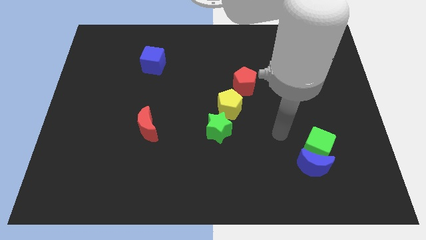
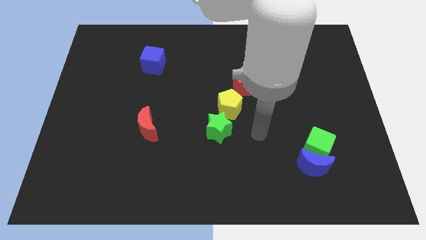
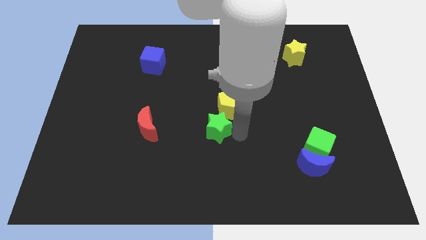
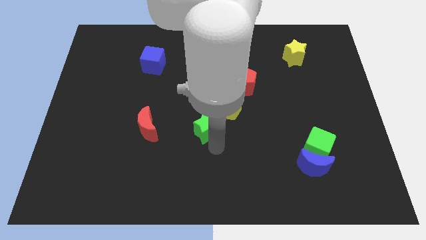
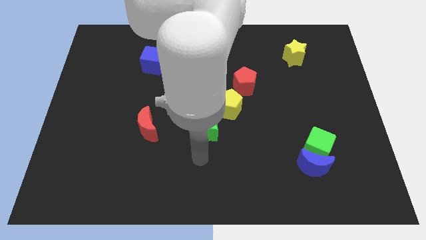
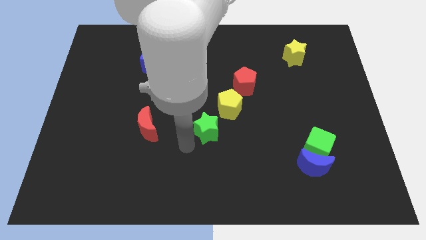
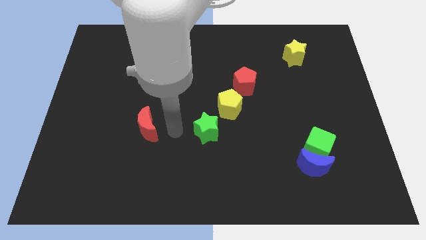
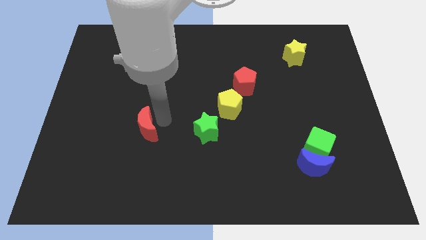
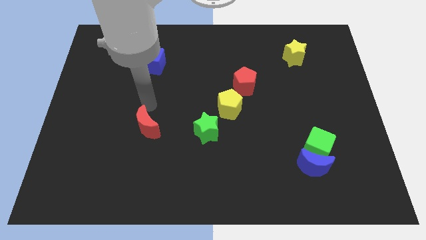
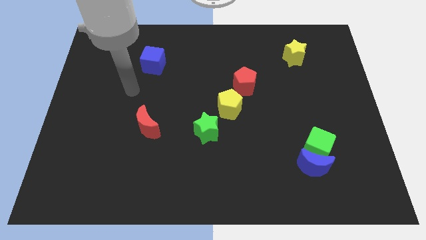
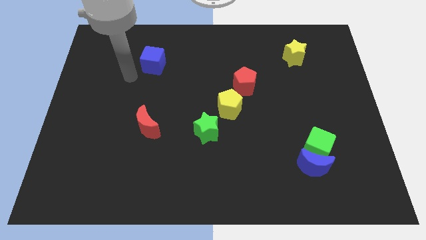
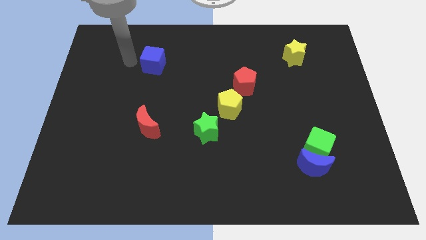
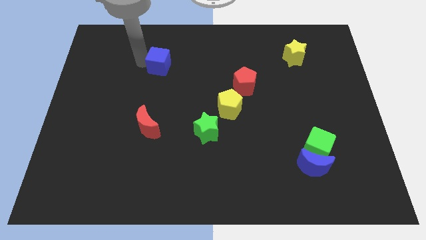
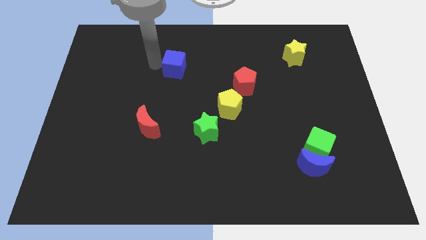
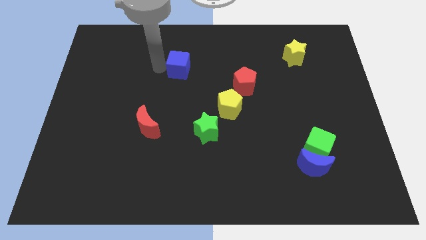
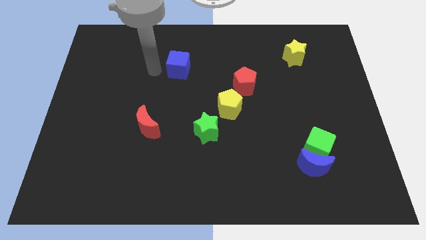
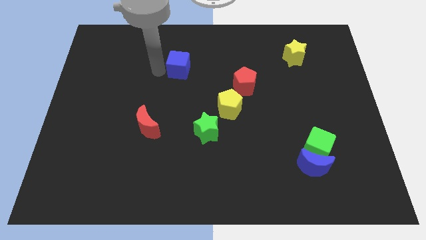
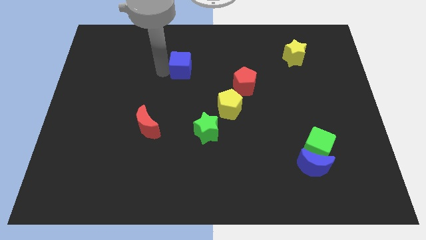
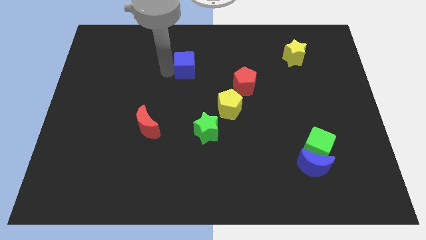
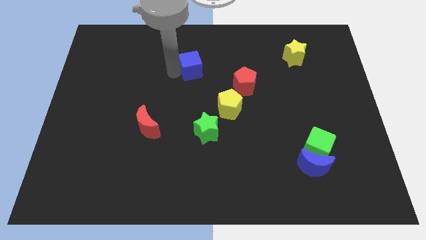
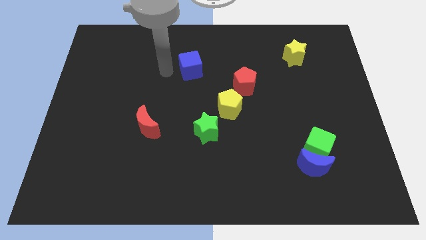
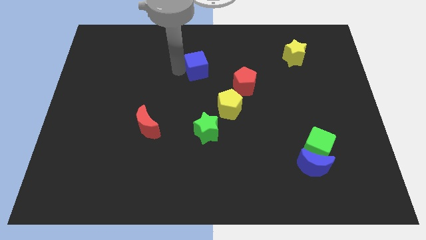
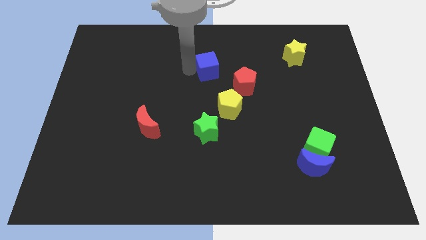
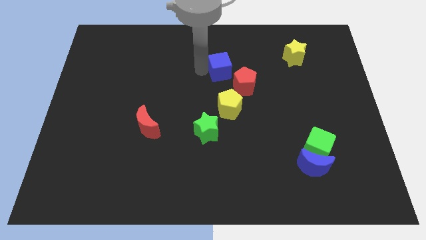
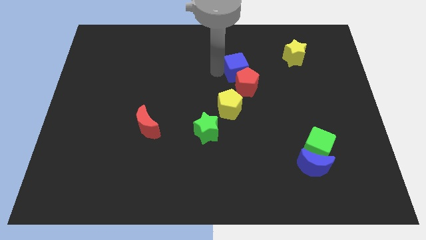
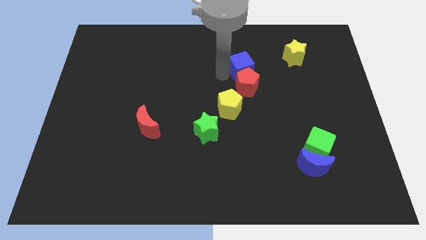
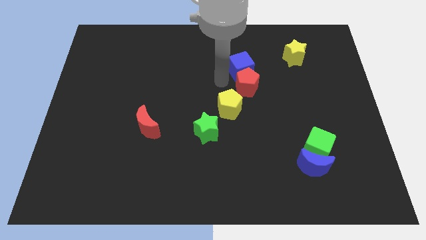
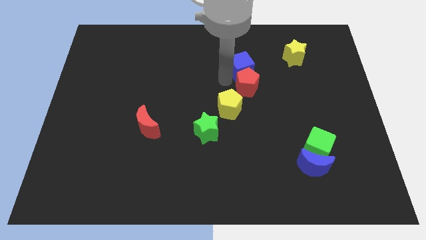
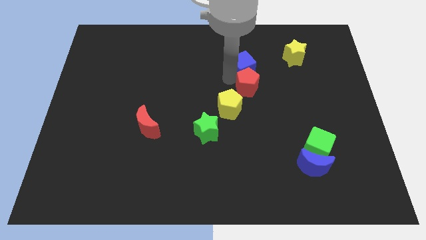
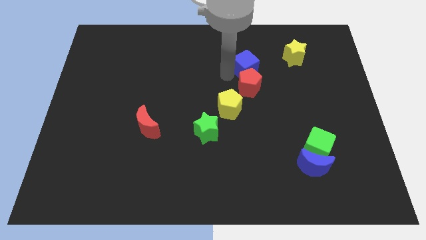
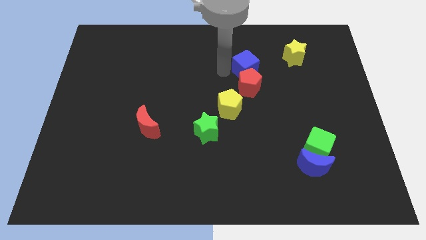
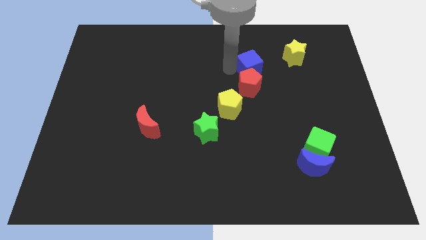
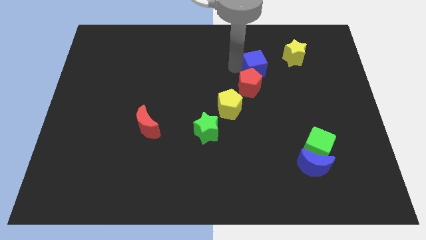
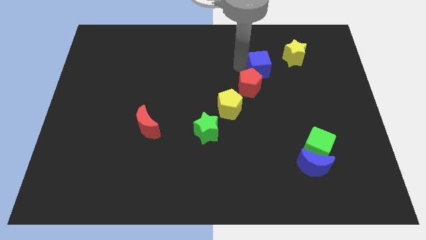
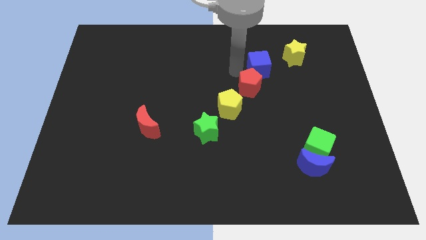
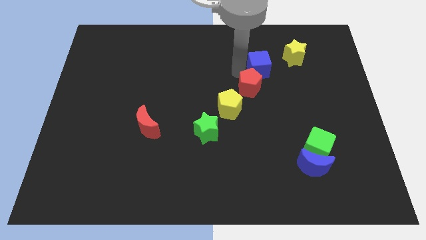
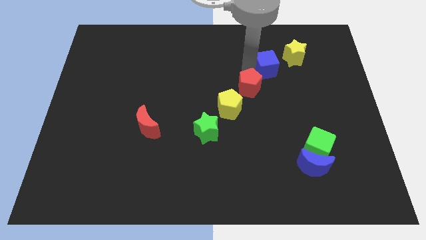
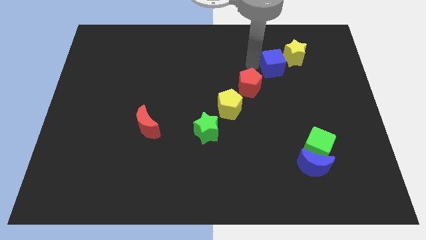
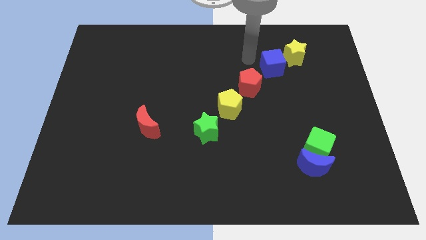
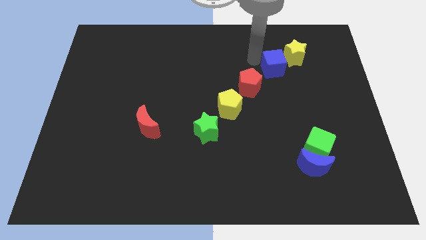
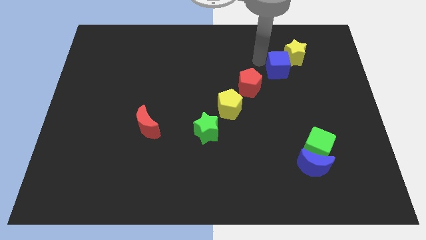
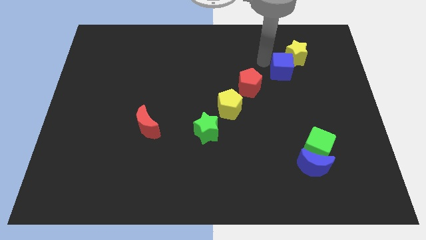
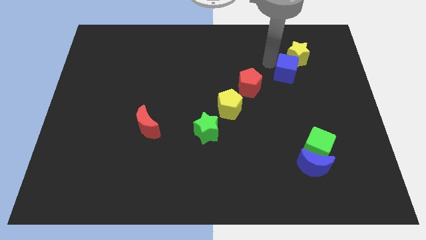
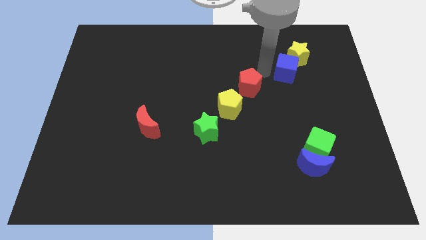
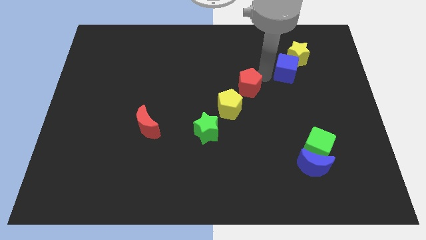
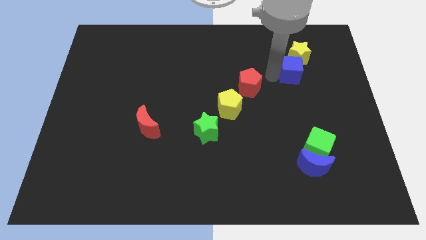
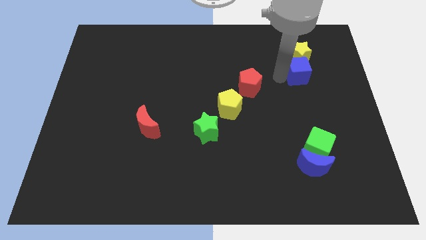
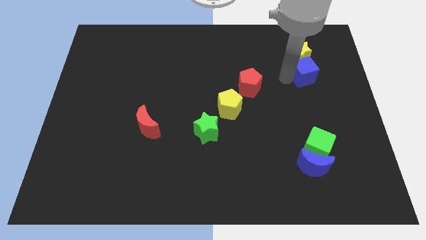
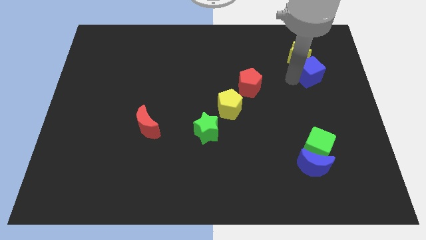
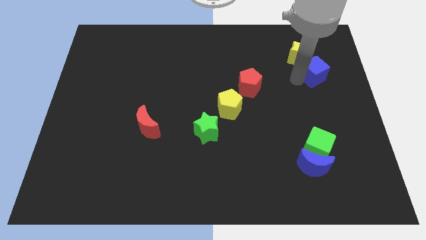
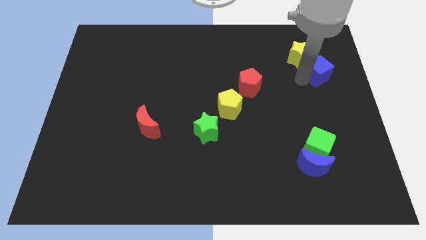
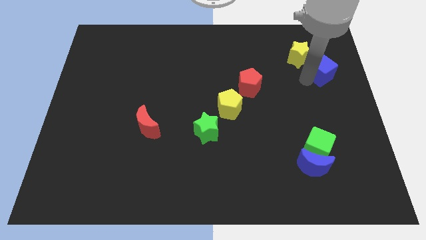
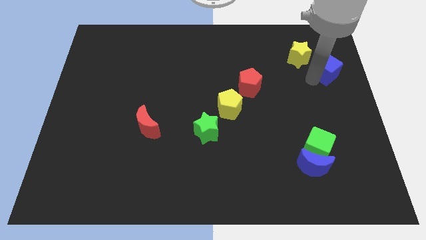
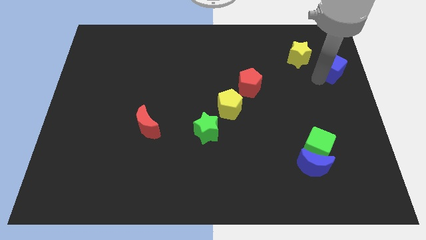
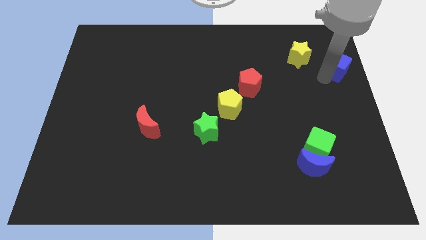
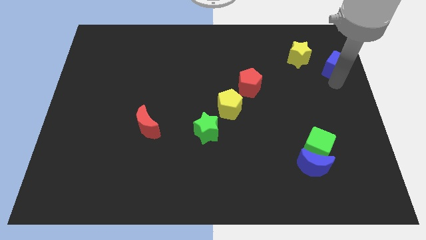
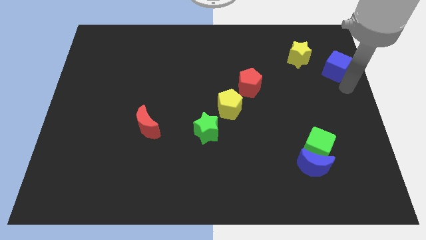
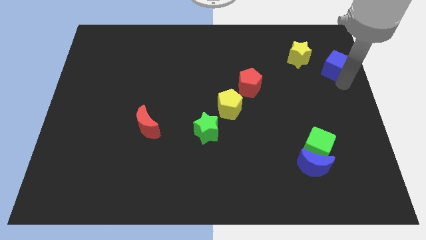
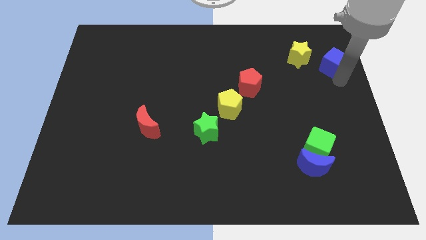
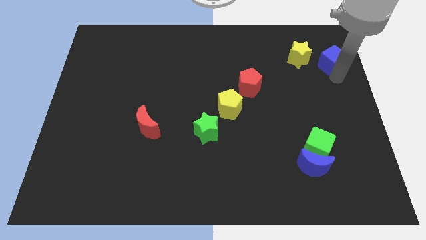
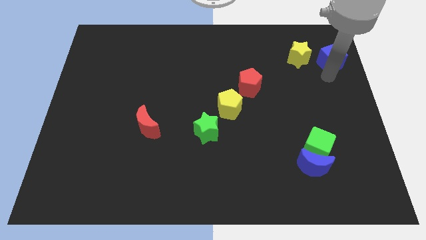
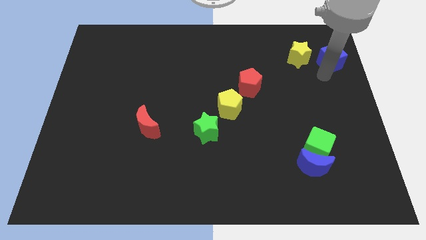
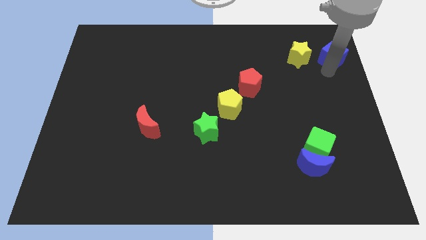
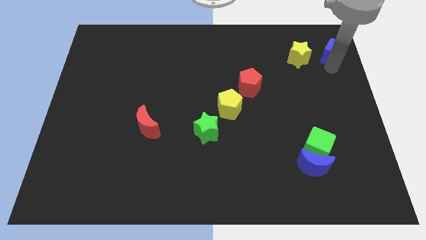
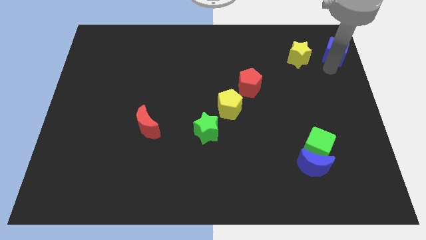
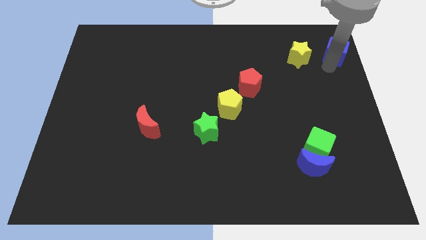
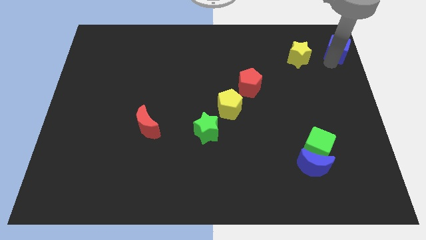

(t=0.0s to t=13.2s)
move the blue cube to the top right
